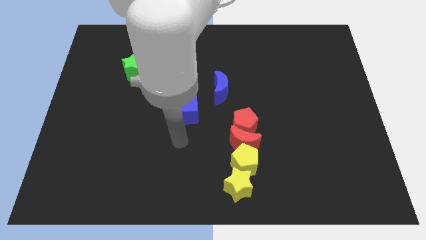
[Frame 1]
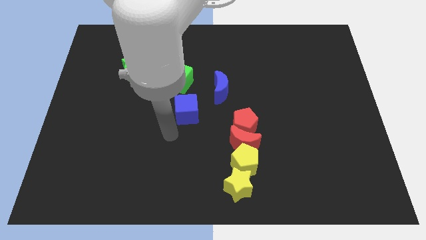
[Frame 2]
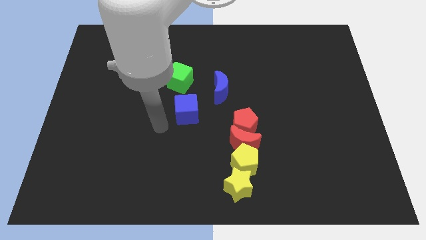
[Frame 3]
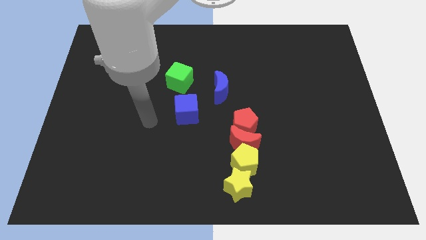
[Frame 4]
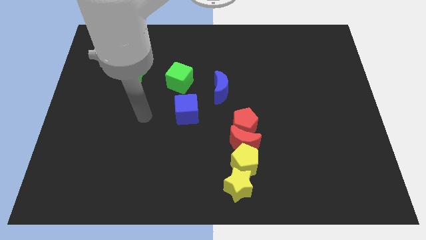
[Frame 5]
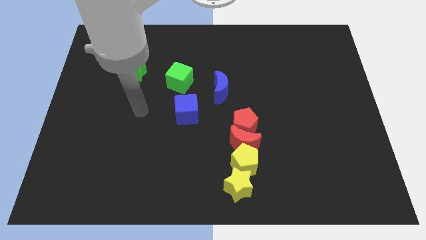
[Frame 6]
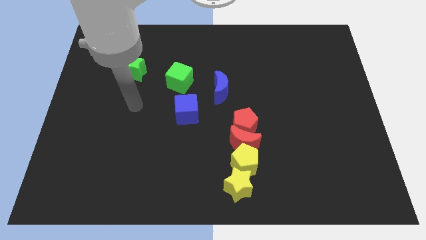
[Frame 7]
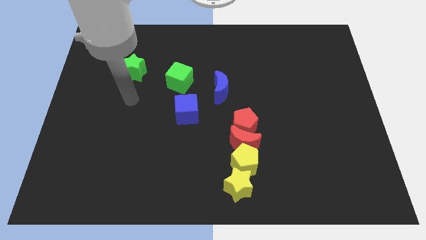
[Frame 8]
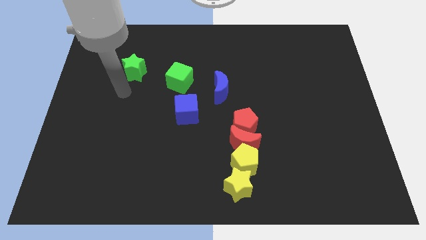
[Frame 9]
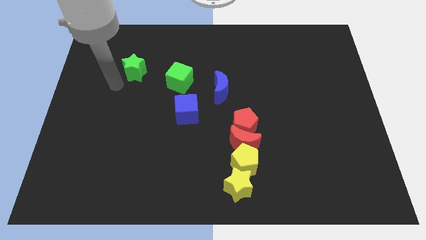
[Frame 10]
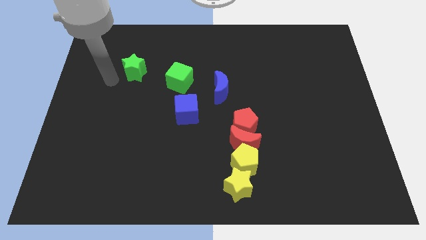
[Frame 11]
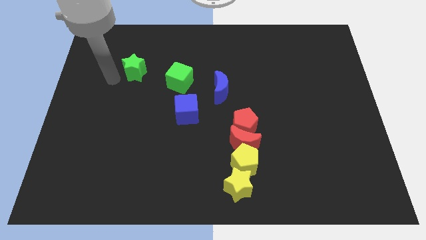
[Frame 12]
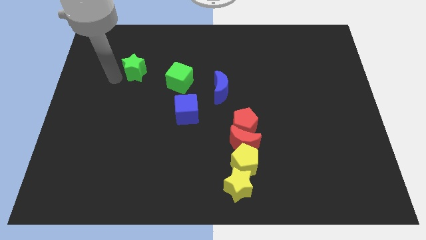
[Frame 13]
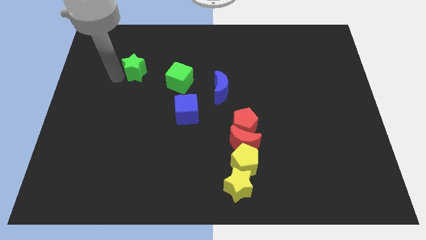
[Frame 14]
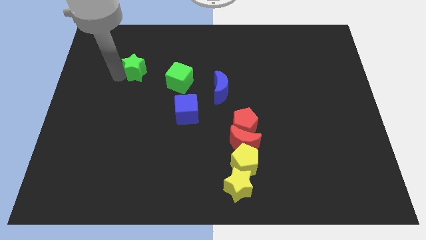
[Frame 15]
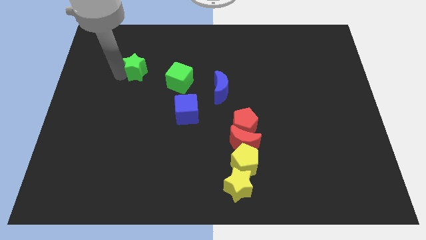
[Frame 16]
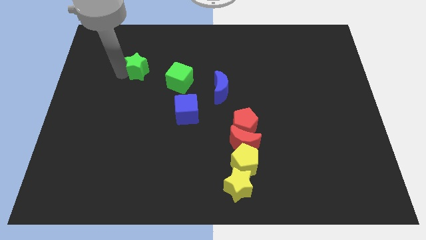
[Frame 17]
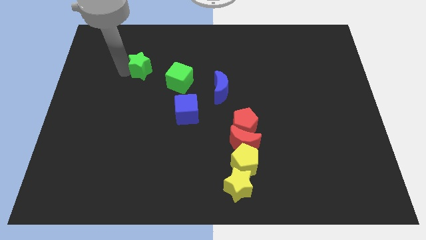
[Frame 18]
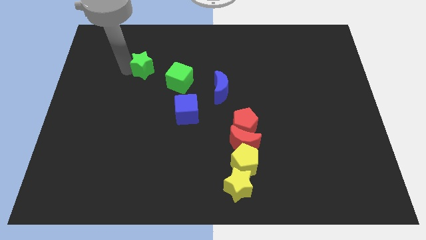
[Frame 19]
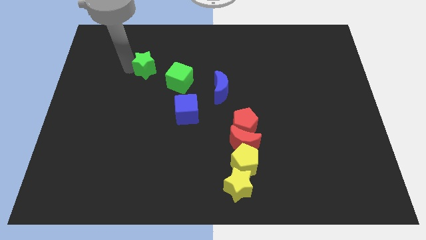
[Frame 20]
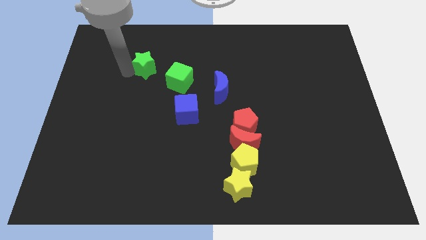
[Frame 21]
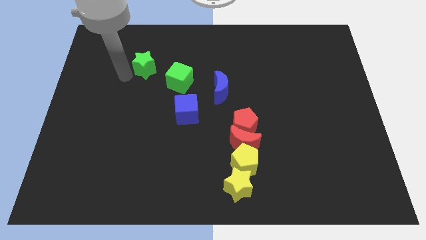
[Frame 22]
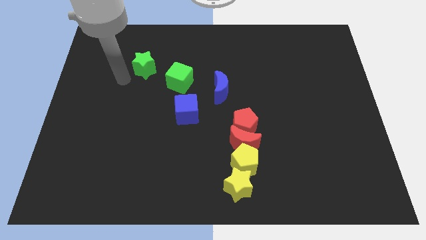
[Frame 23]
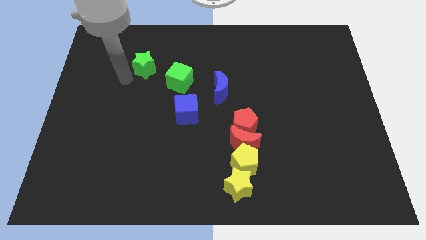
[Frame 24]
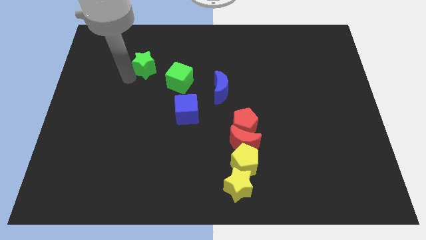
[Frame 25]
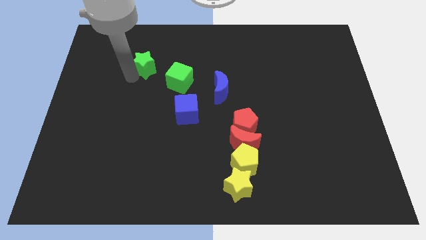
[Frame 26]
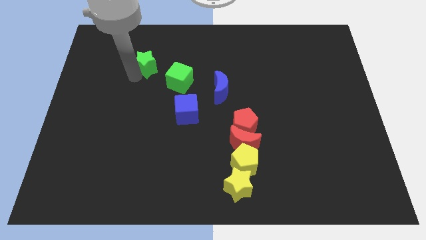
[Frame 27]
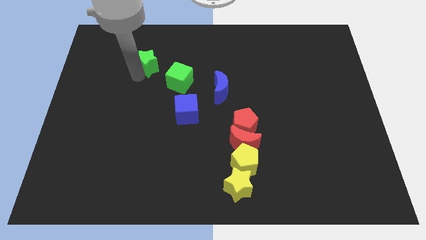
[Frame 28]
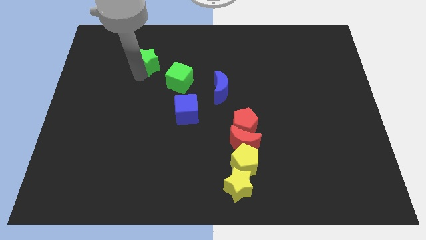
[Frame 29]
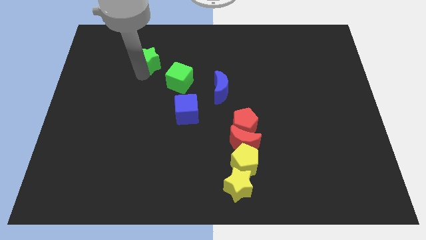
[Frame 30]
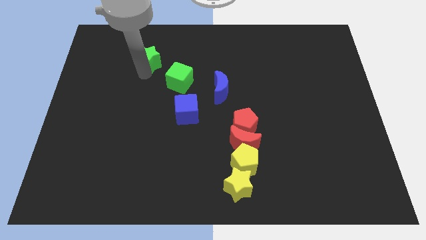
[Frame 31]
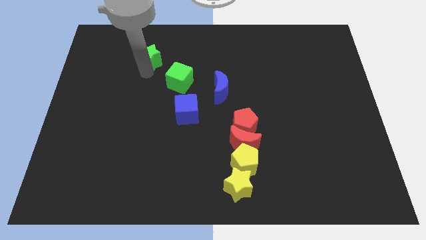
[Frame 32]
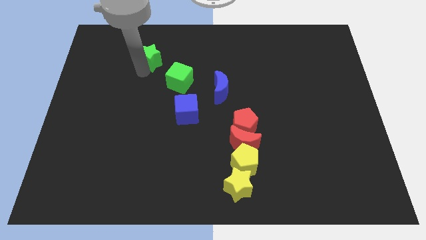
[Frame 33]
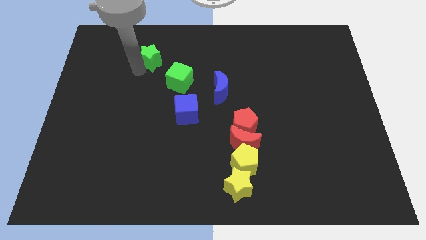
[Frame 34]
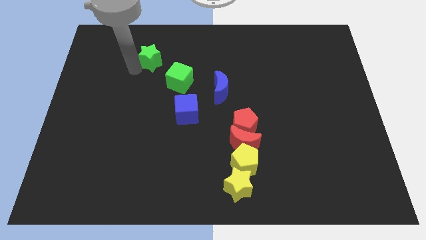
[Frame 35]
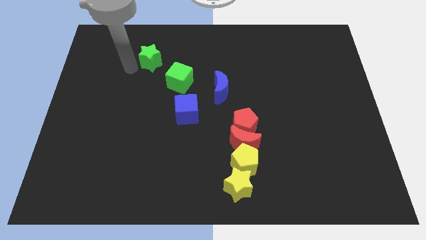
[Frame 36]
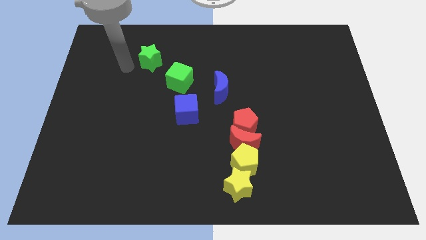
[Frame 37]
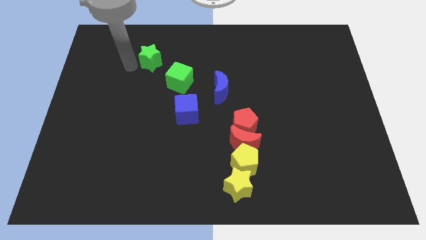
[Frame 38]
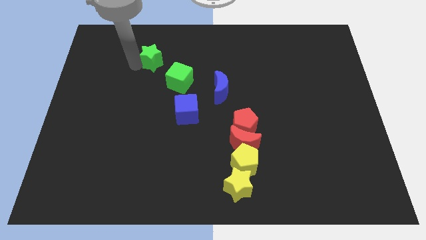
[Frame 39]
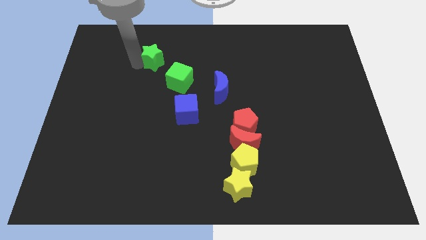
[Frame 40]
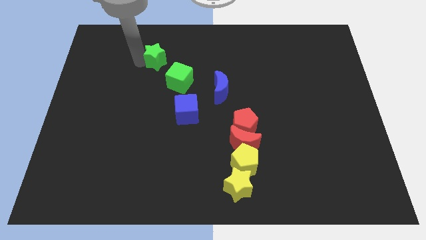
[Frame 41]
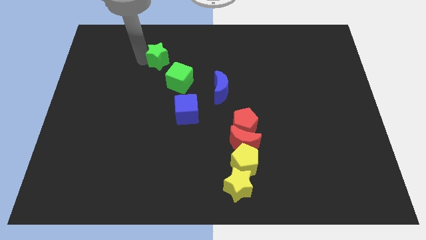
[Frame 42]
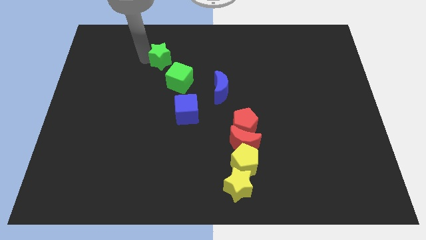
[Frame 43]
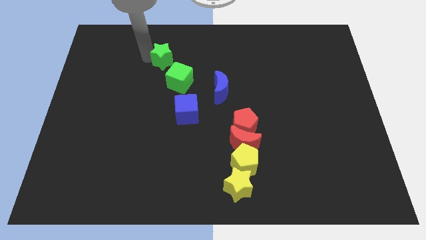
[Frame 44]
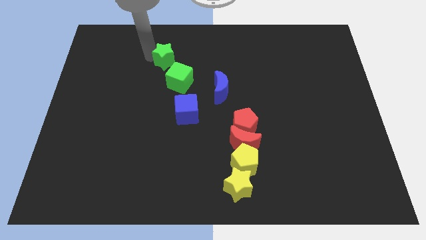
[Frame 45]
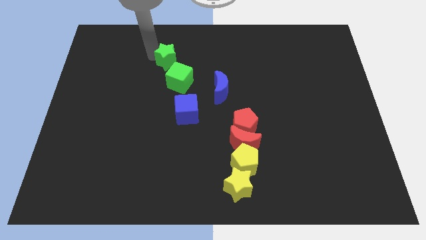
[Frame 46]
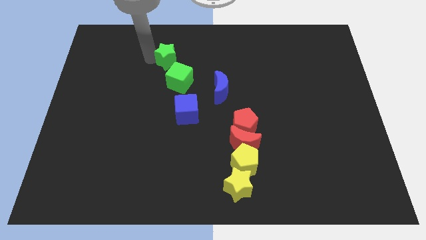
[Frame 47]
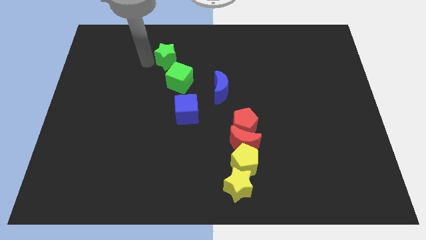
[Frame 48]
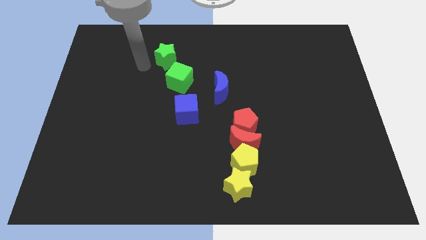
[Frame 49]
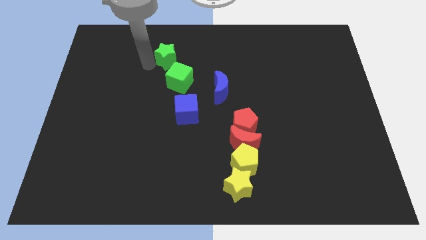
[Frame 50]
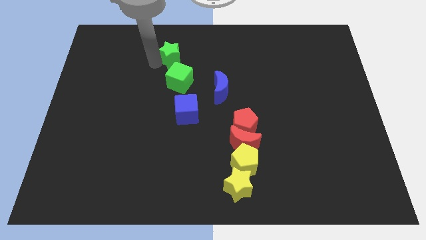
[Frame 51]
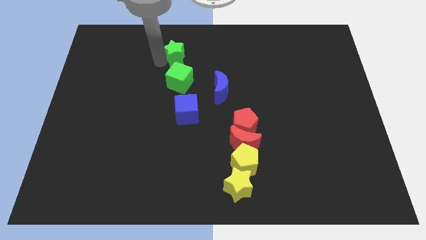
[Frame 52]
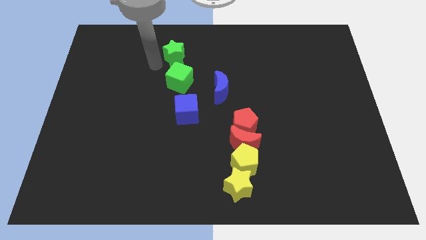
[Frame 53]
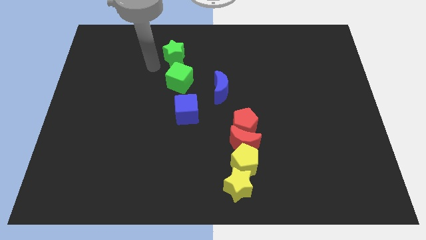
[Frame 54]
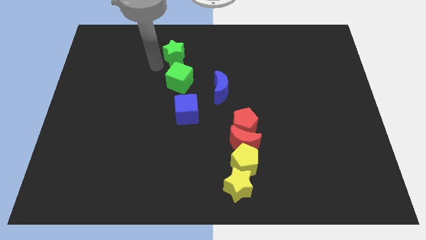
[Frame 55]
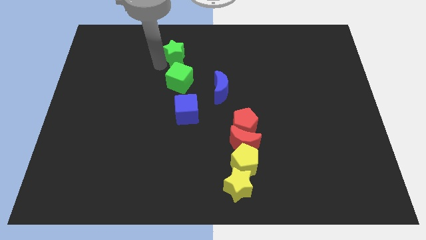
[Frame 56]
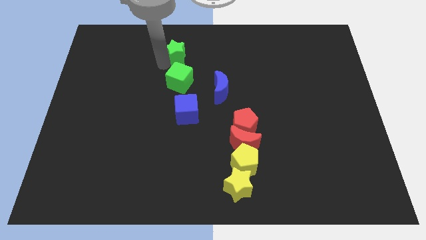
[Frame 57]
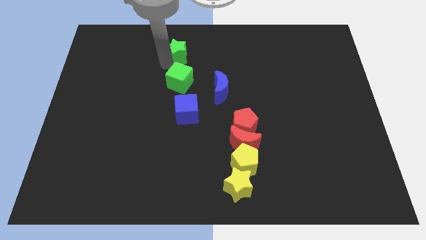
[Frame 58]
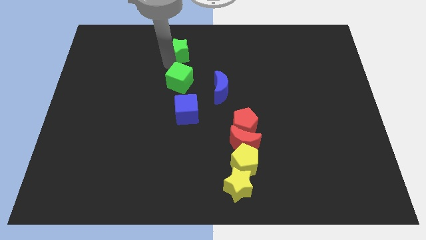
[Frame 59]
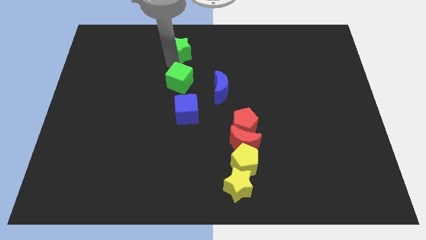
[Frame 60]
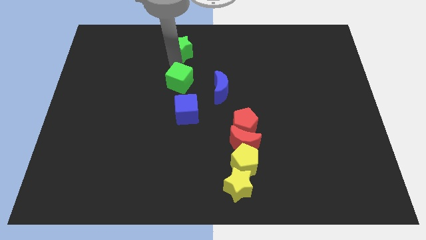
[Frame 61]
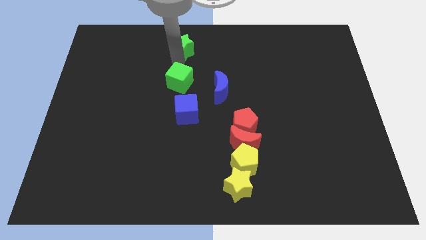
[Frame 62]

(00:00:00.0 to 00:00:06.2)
put the green star to the top
